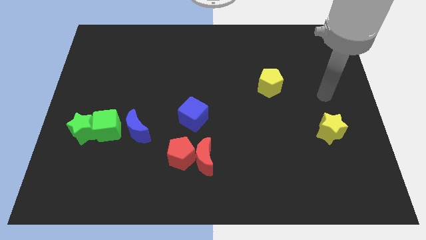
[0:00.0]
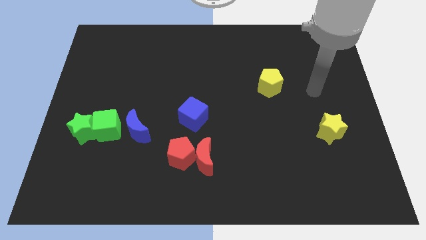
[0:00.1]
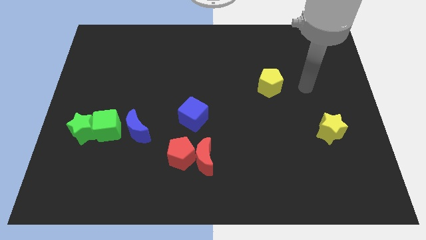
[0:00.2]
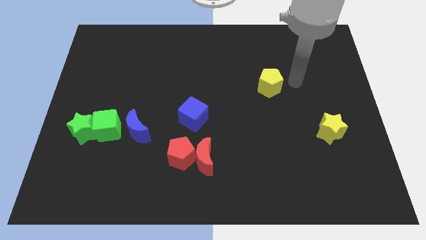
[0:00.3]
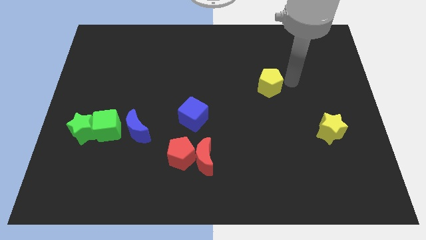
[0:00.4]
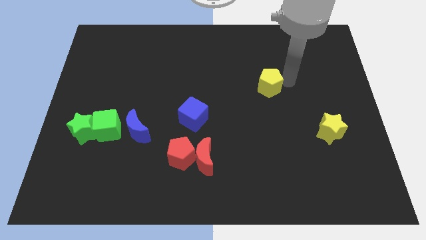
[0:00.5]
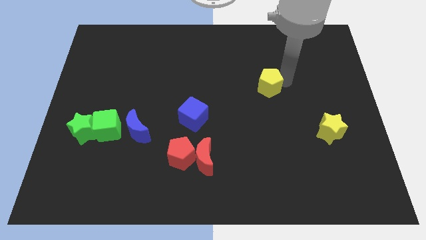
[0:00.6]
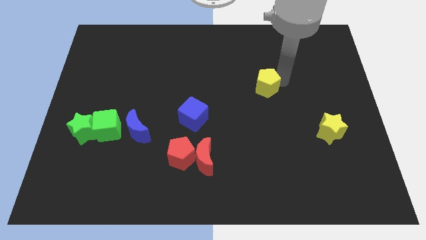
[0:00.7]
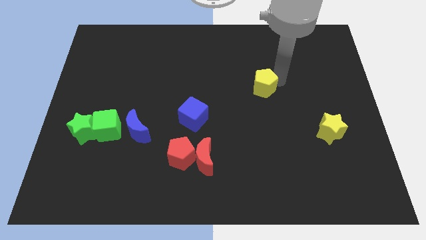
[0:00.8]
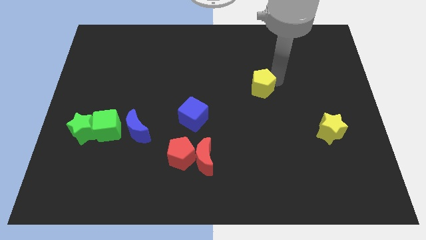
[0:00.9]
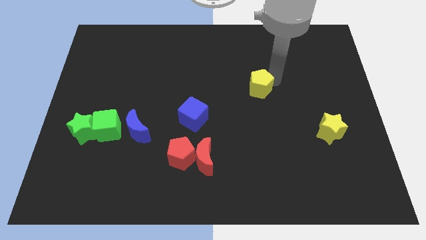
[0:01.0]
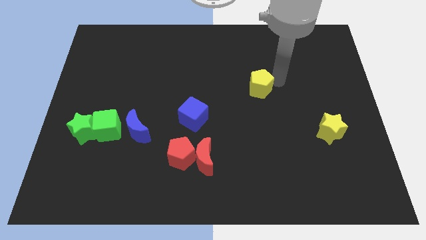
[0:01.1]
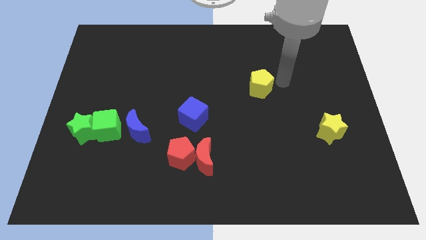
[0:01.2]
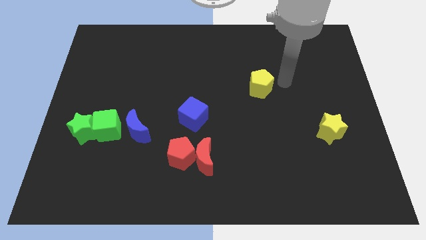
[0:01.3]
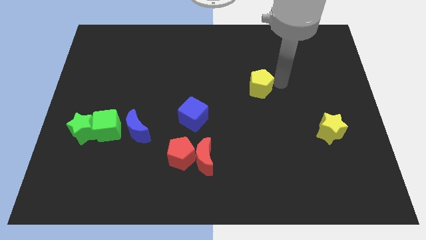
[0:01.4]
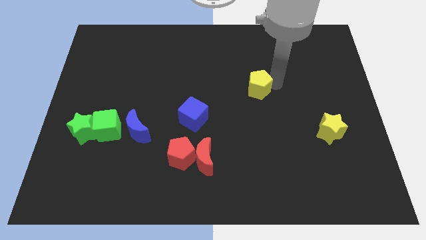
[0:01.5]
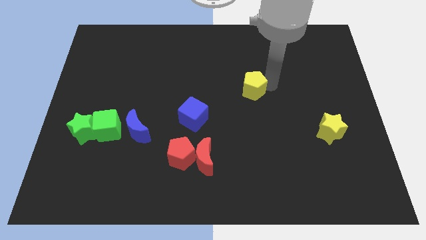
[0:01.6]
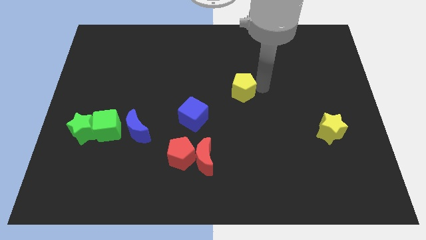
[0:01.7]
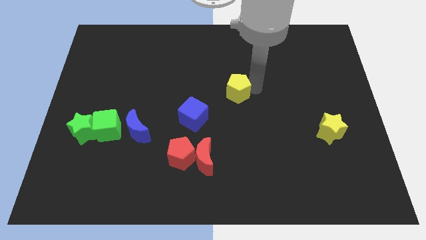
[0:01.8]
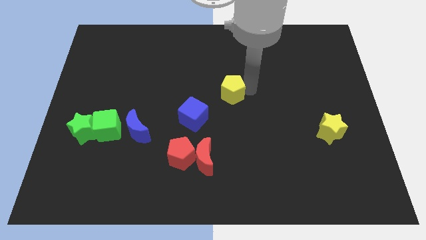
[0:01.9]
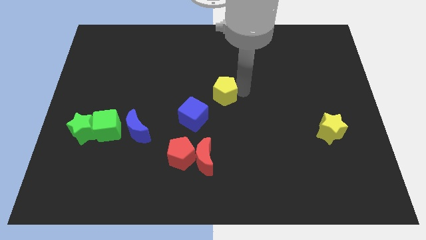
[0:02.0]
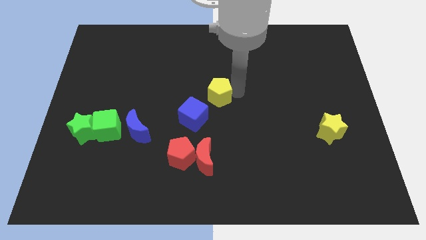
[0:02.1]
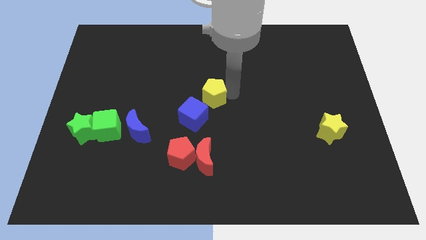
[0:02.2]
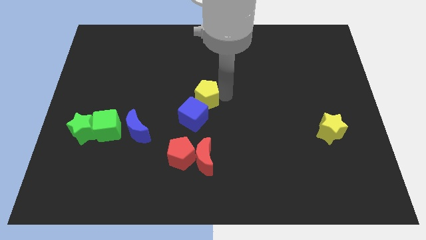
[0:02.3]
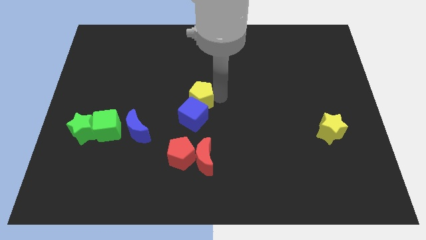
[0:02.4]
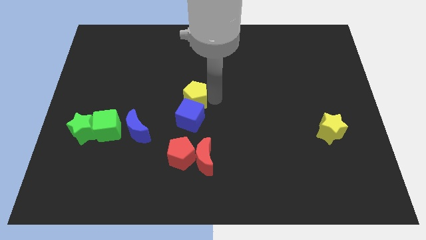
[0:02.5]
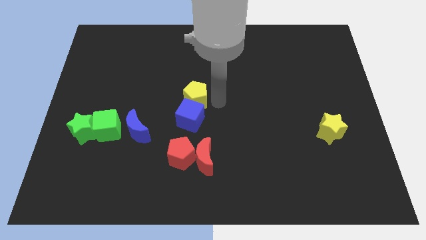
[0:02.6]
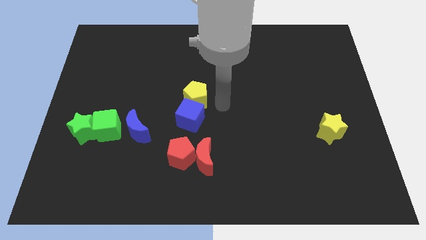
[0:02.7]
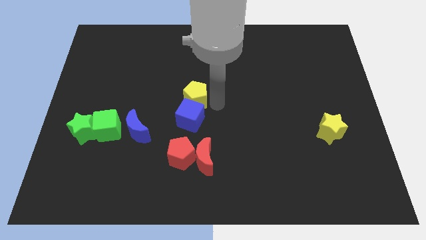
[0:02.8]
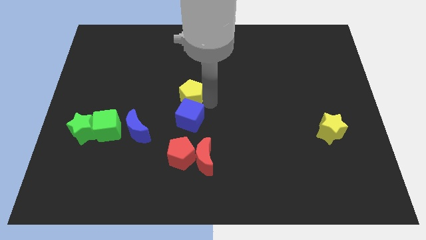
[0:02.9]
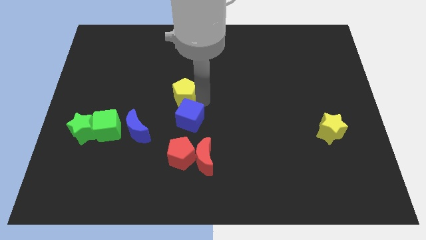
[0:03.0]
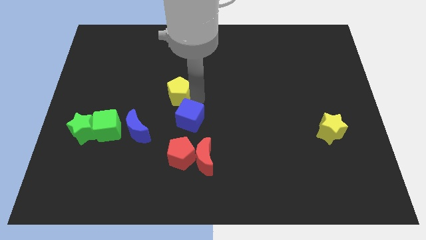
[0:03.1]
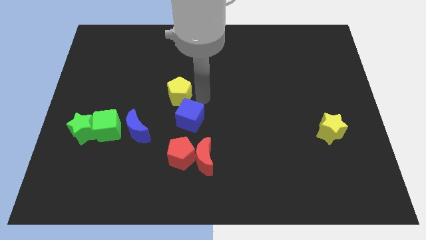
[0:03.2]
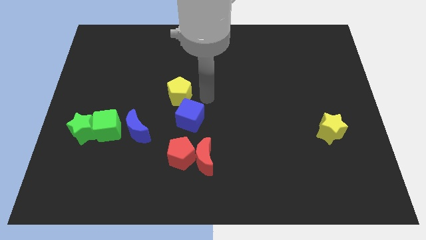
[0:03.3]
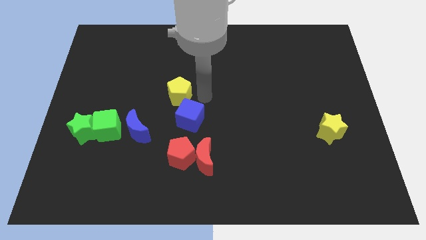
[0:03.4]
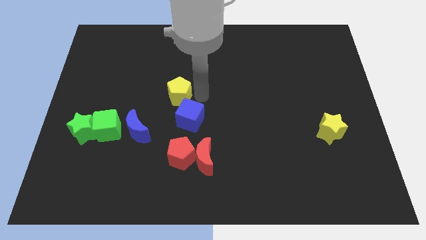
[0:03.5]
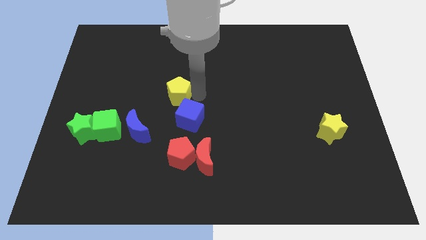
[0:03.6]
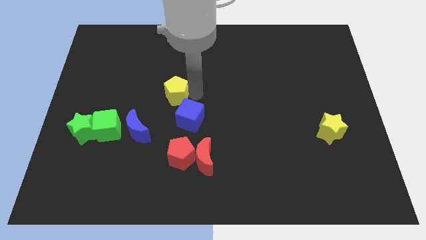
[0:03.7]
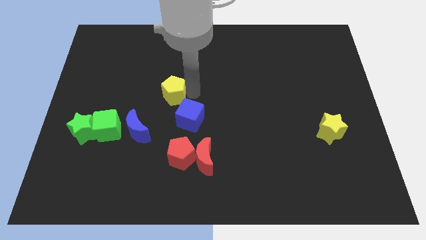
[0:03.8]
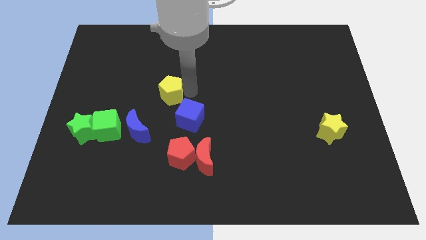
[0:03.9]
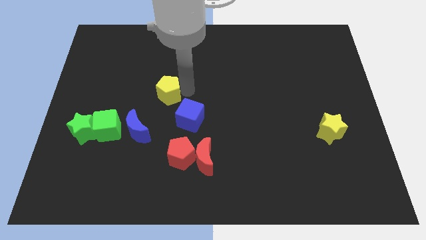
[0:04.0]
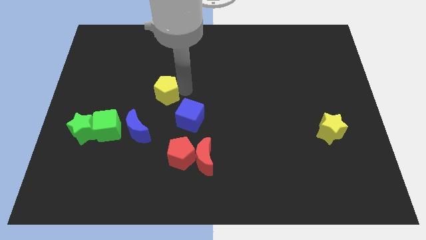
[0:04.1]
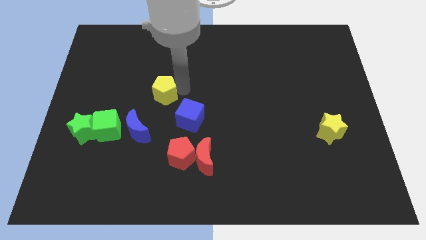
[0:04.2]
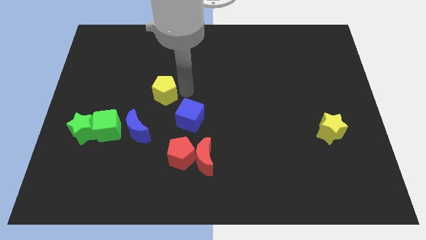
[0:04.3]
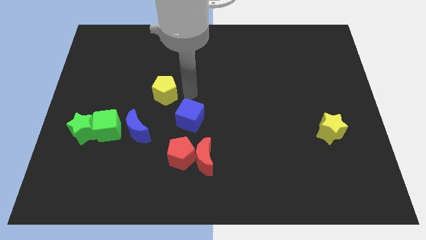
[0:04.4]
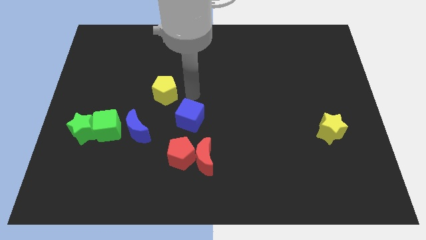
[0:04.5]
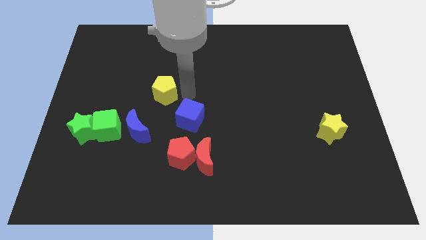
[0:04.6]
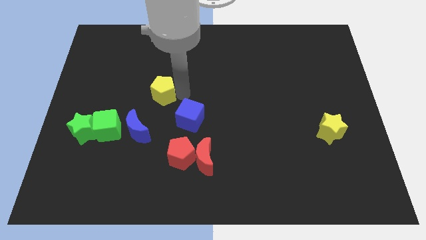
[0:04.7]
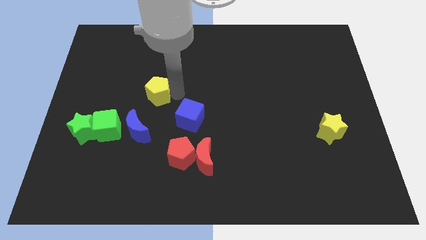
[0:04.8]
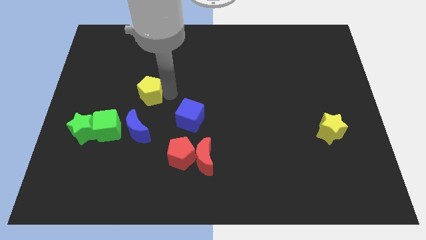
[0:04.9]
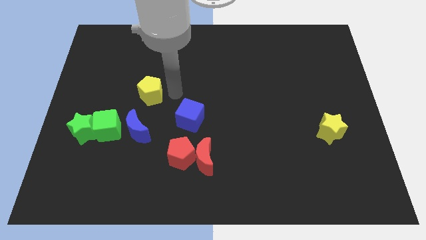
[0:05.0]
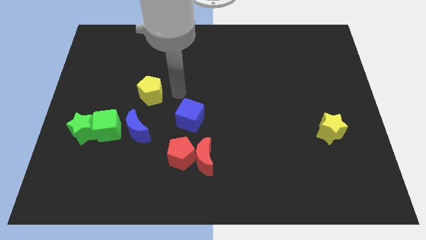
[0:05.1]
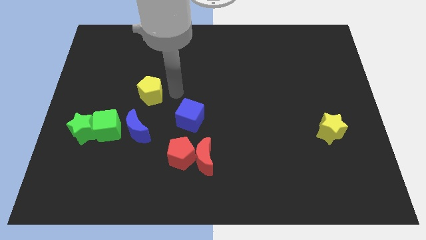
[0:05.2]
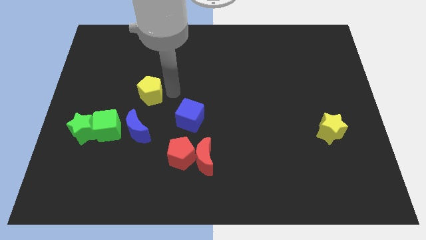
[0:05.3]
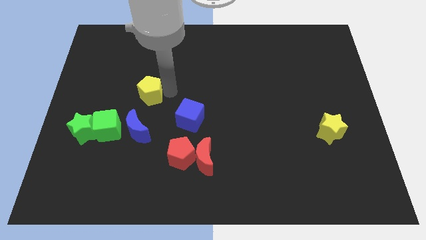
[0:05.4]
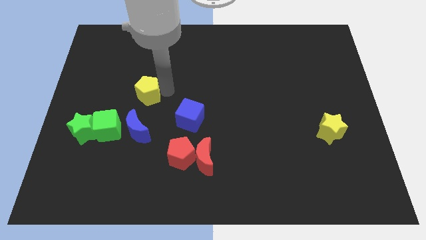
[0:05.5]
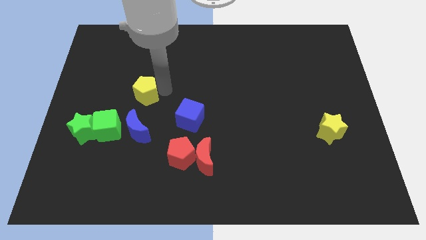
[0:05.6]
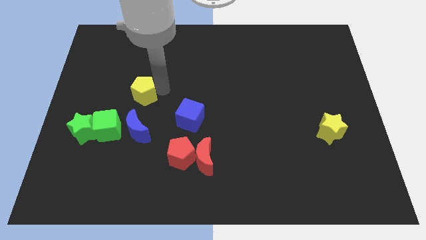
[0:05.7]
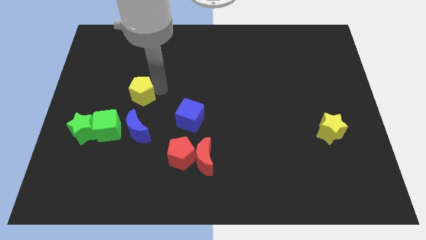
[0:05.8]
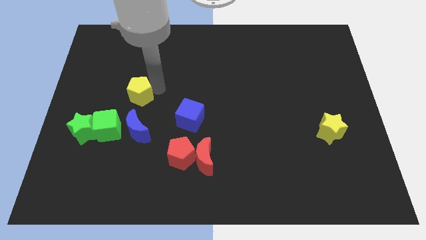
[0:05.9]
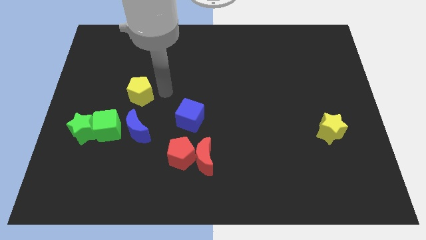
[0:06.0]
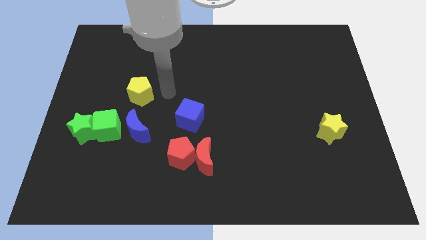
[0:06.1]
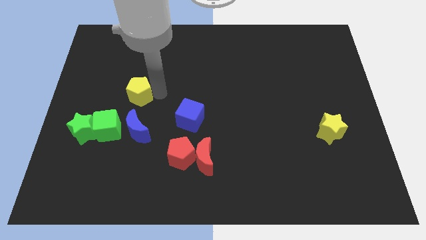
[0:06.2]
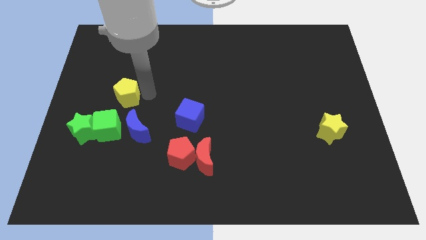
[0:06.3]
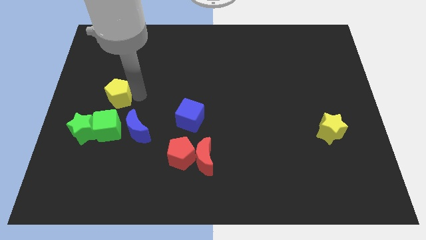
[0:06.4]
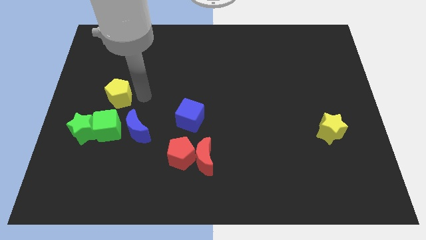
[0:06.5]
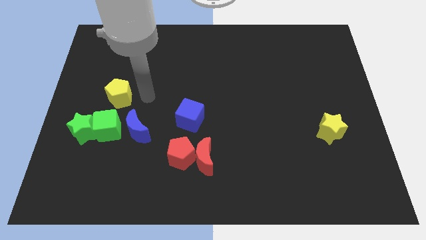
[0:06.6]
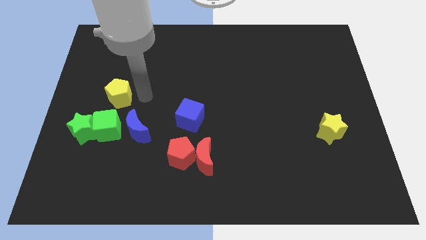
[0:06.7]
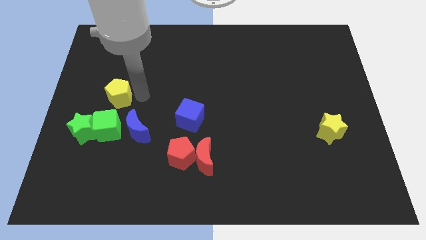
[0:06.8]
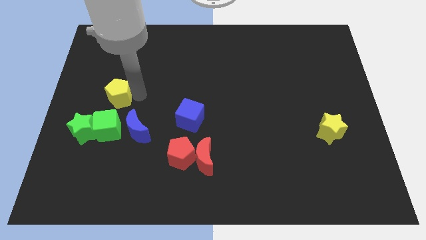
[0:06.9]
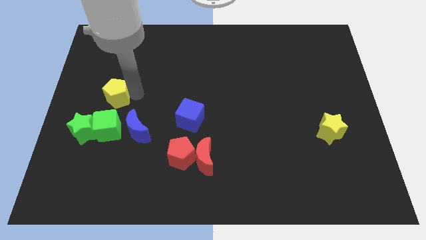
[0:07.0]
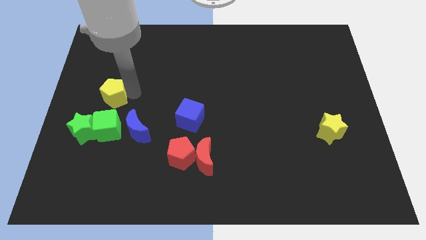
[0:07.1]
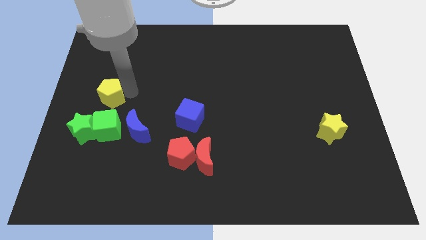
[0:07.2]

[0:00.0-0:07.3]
slide the yellow pentagon to the top side of the green star

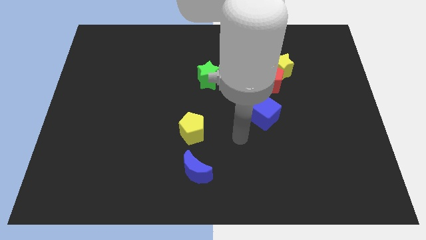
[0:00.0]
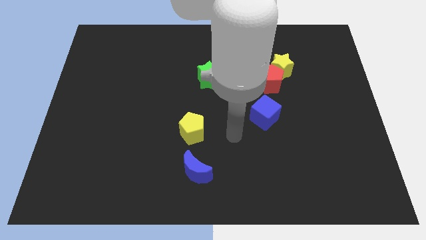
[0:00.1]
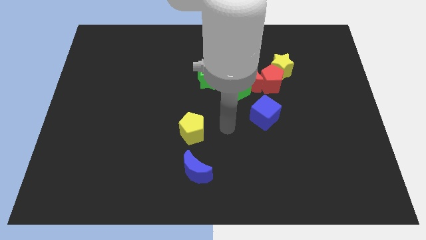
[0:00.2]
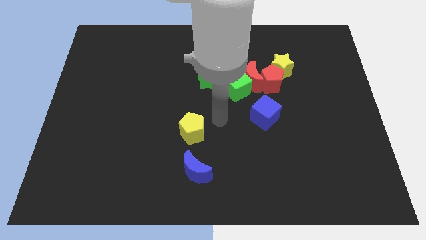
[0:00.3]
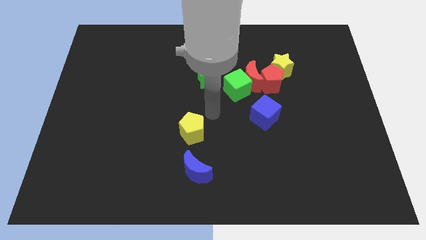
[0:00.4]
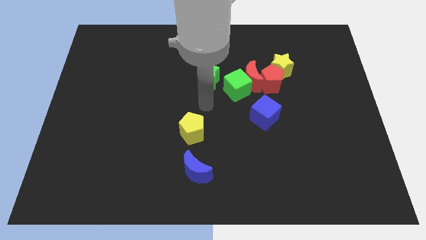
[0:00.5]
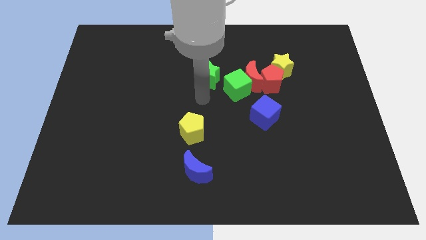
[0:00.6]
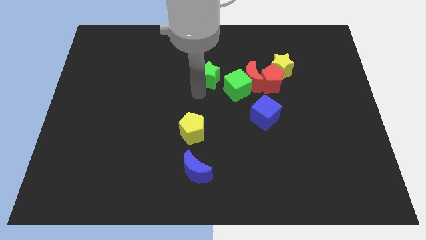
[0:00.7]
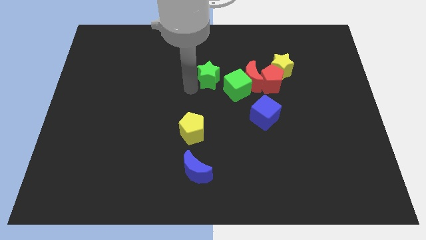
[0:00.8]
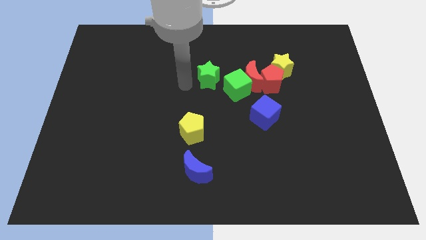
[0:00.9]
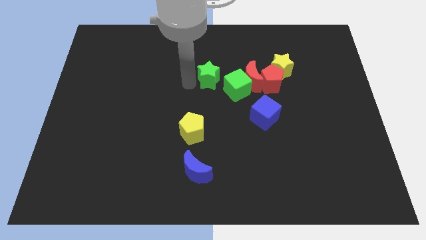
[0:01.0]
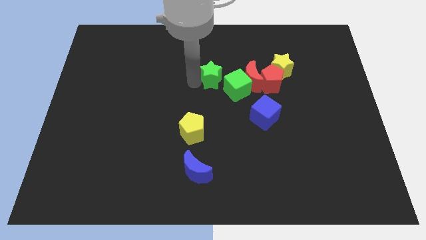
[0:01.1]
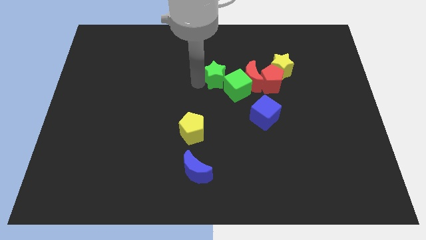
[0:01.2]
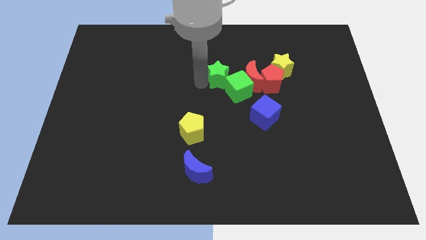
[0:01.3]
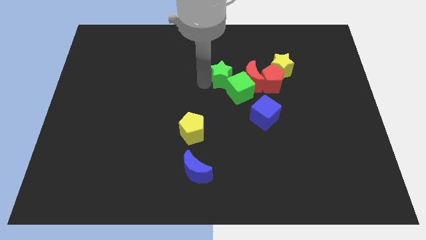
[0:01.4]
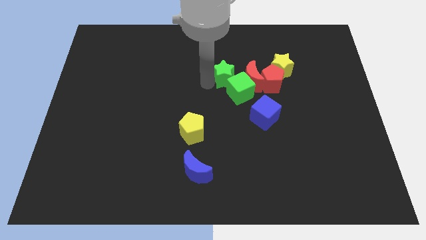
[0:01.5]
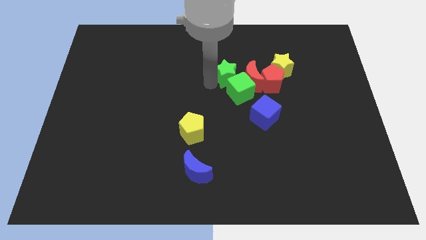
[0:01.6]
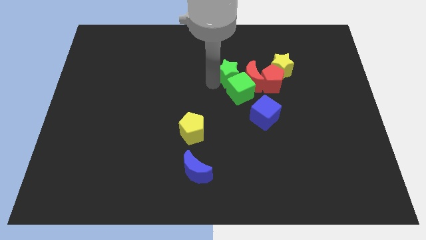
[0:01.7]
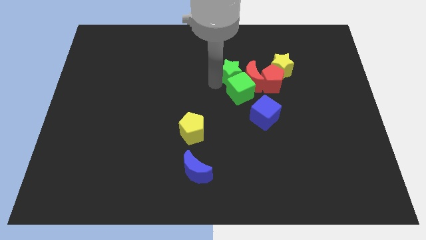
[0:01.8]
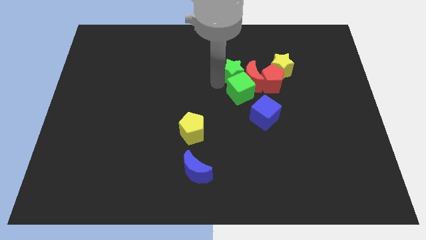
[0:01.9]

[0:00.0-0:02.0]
put the green star to the top right of the green cube
